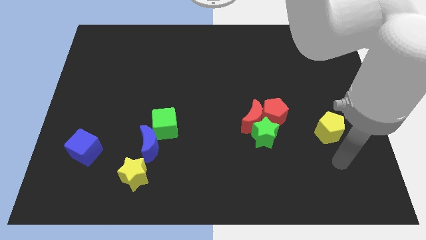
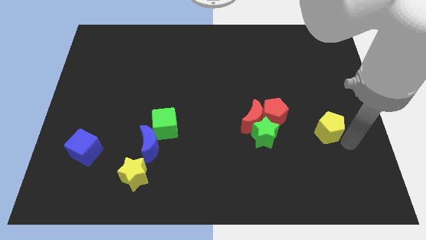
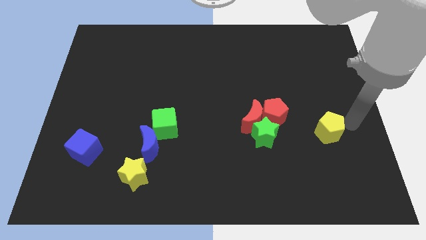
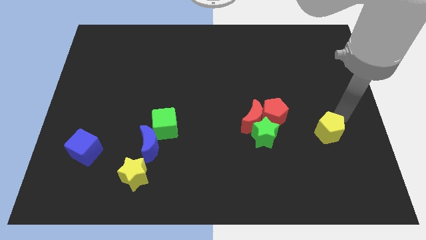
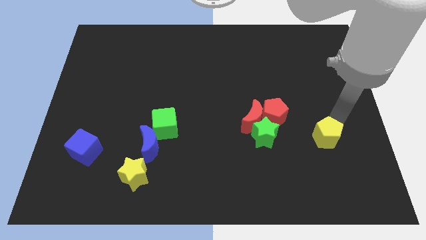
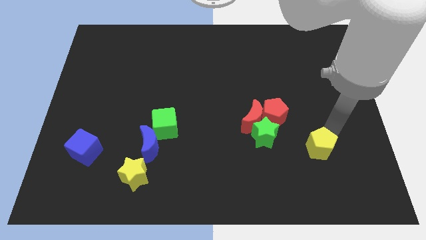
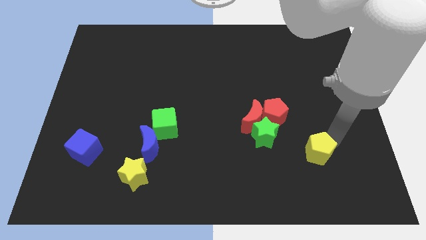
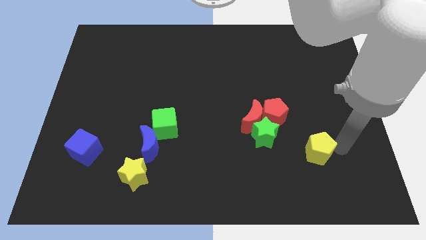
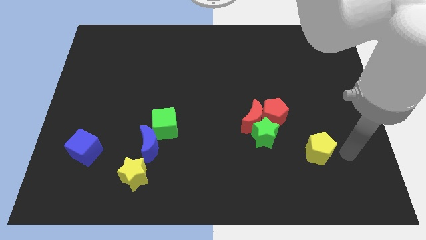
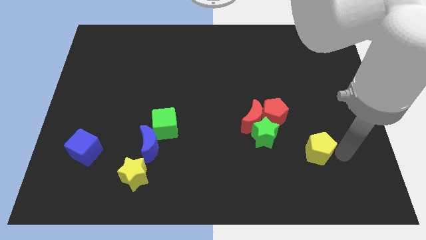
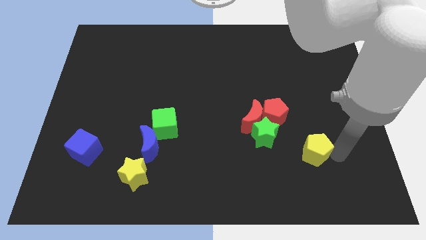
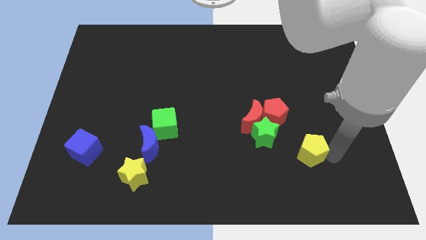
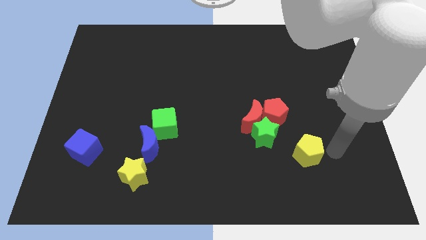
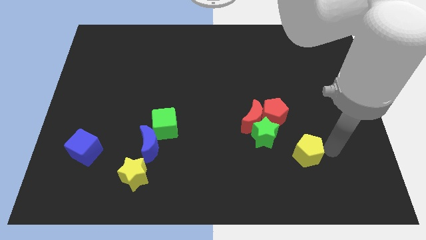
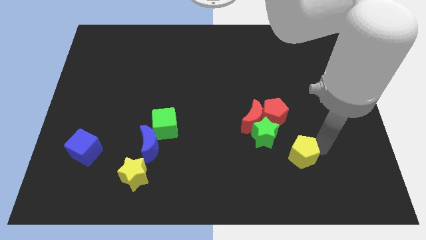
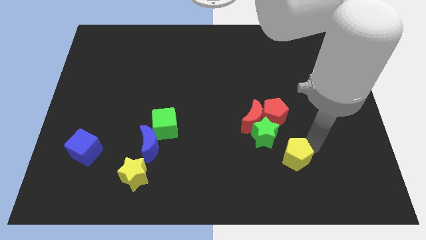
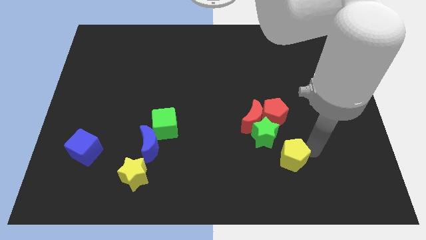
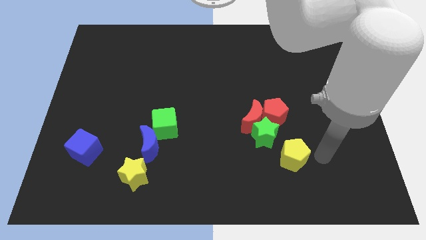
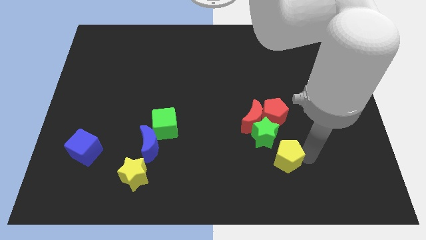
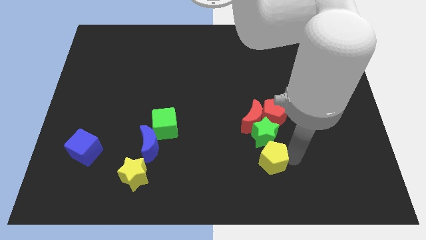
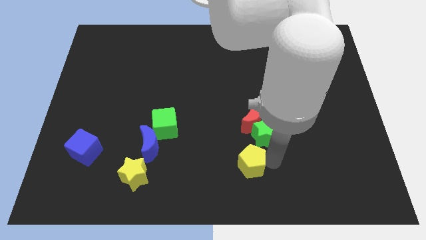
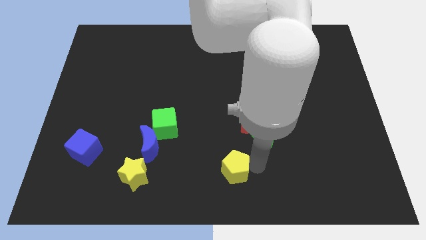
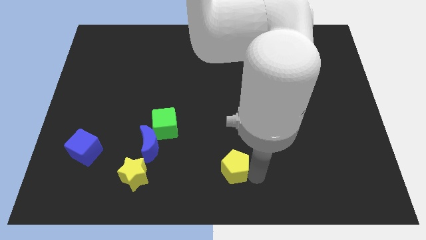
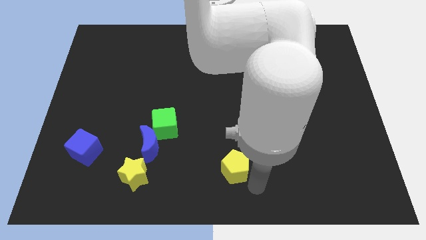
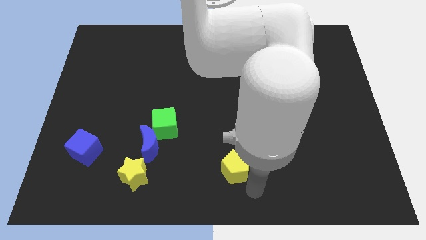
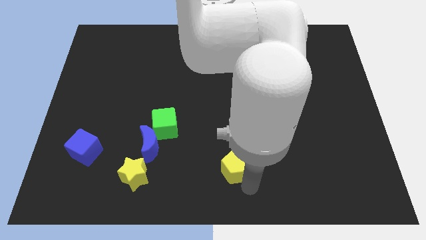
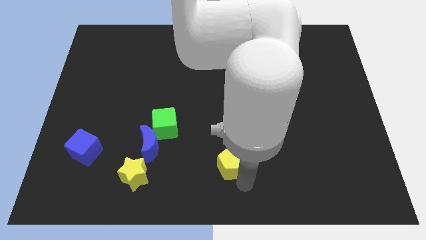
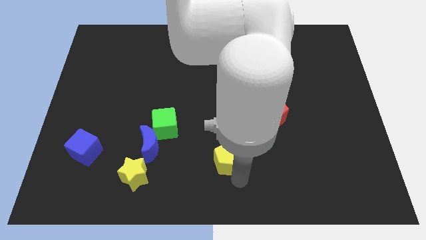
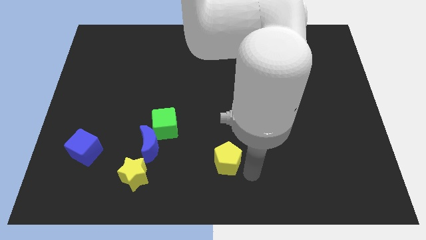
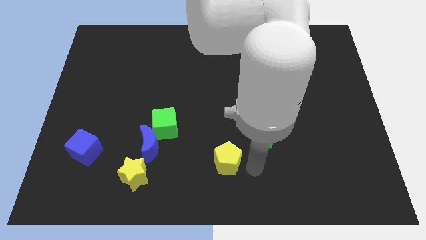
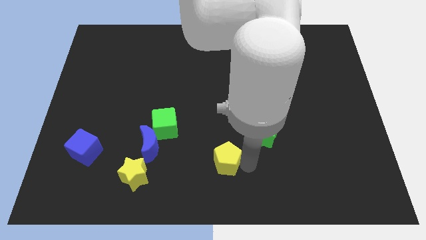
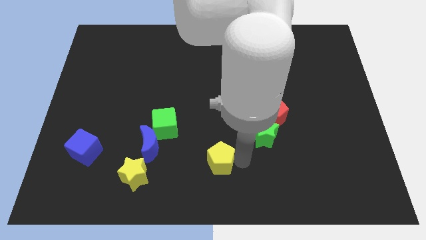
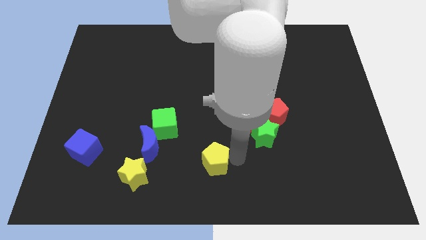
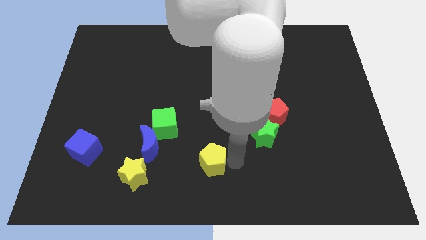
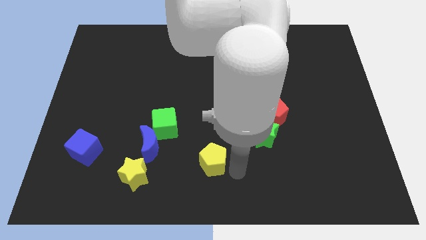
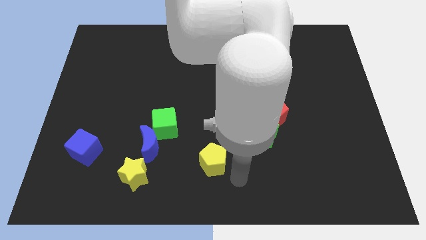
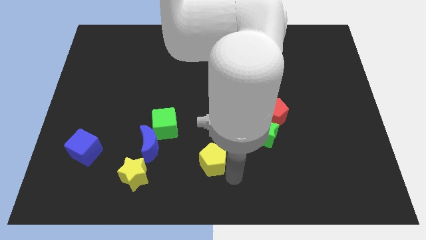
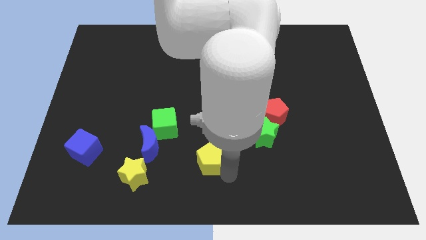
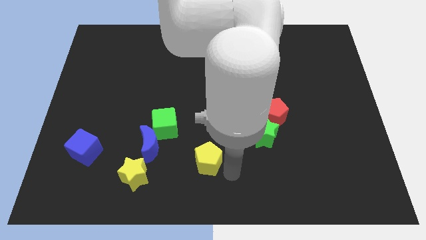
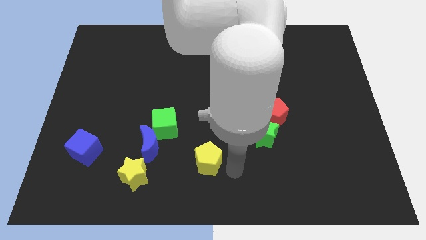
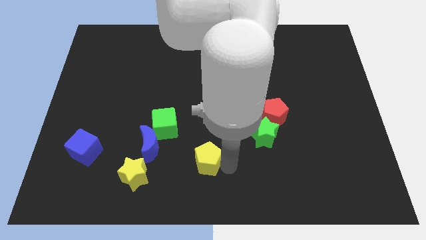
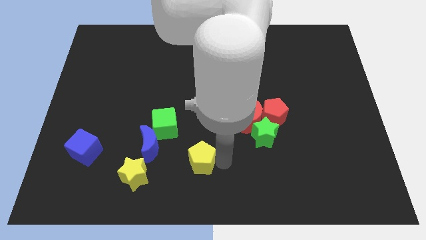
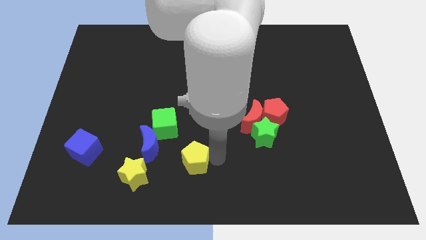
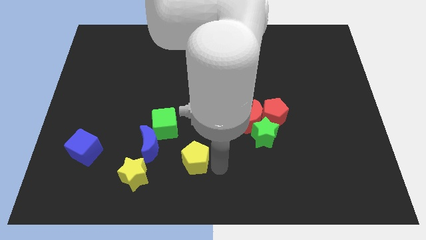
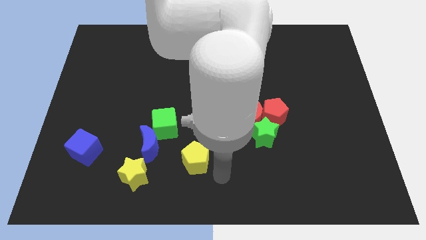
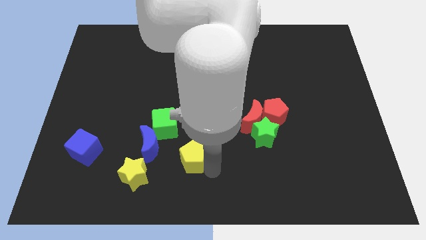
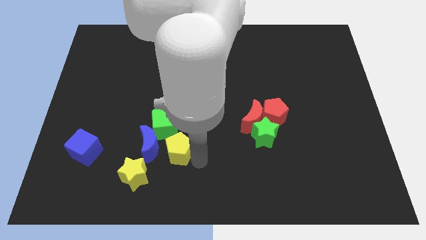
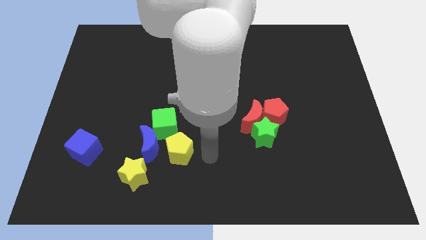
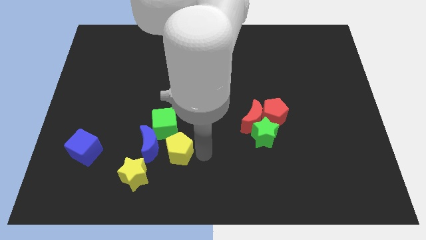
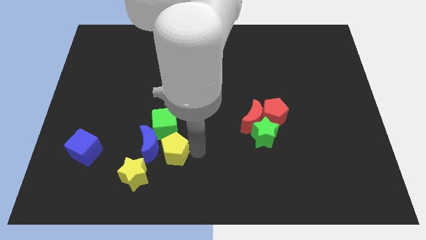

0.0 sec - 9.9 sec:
move the yellow pentagon next to the blue moon

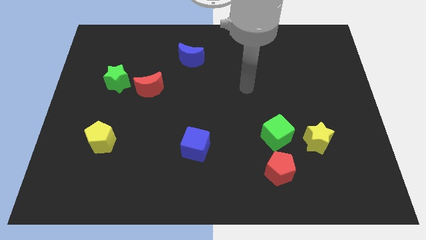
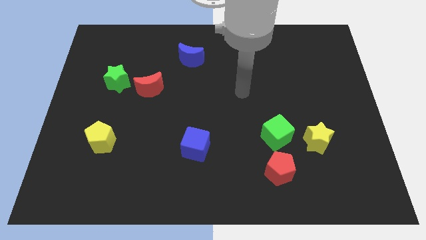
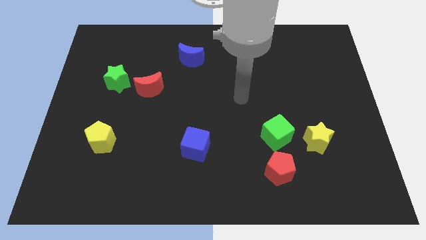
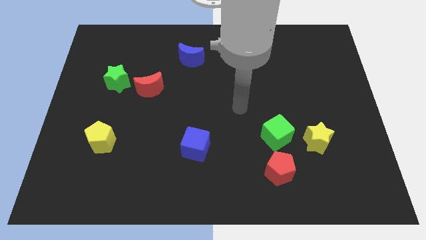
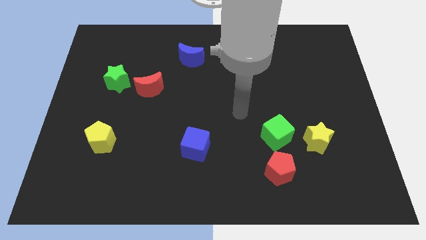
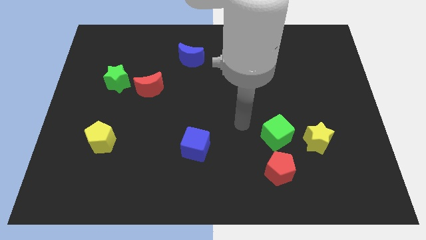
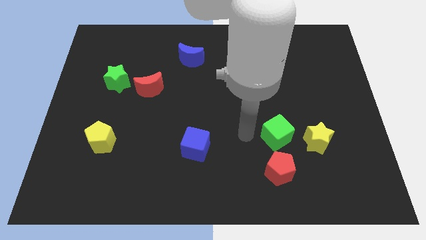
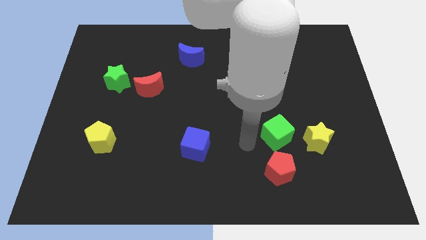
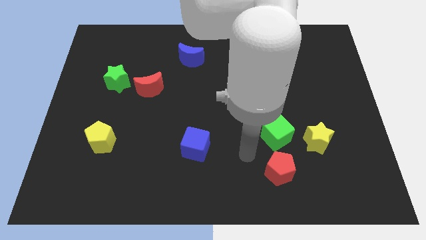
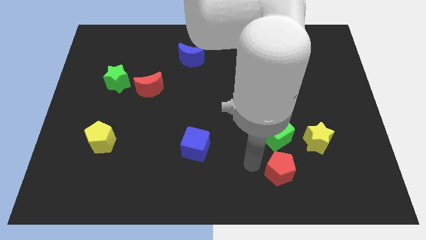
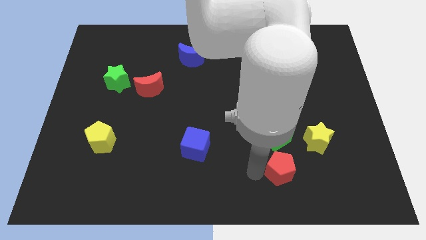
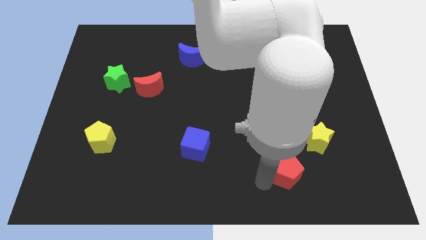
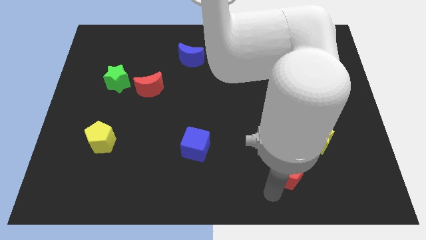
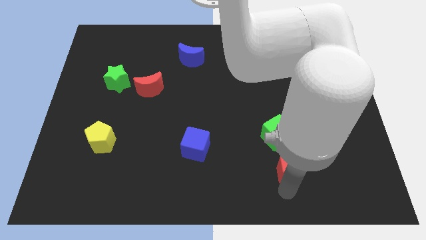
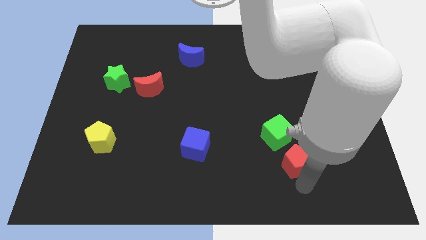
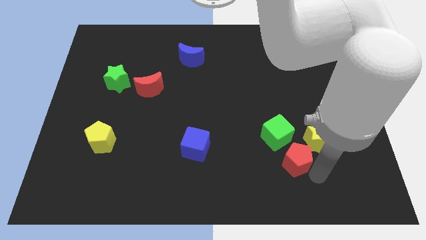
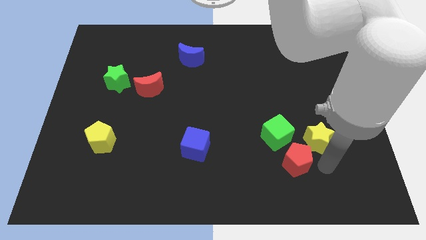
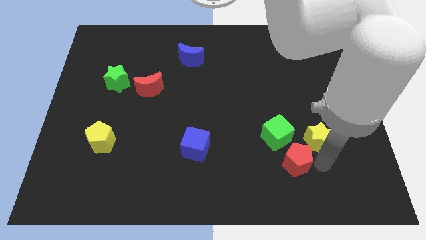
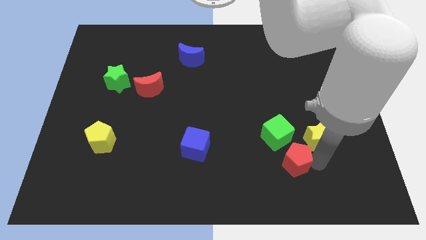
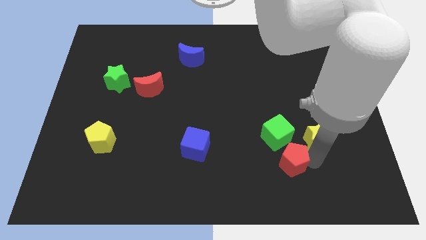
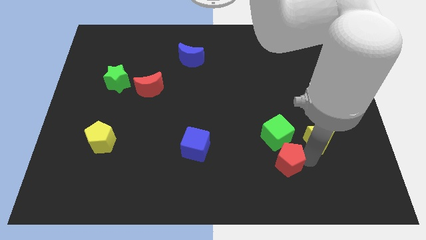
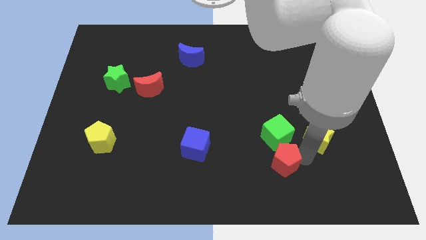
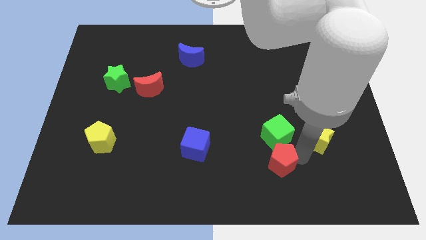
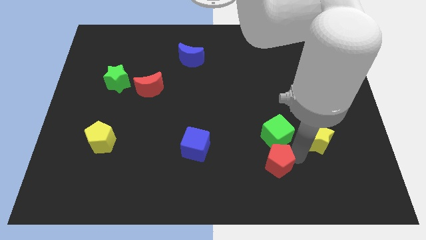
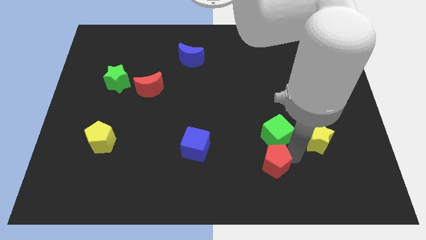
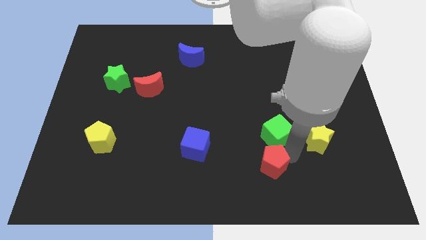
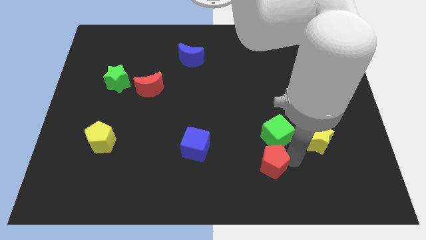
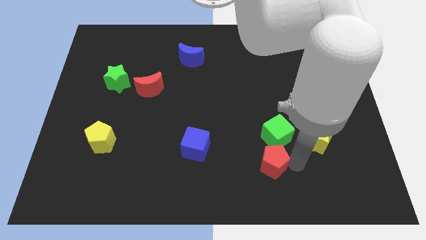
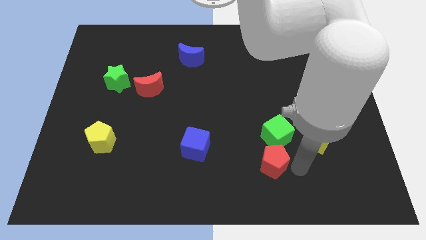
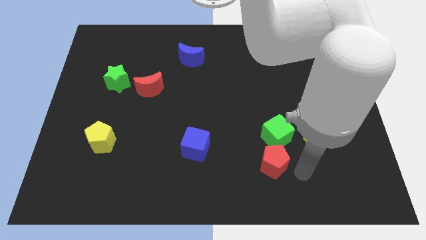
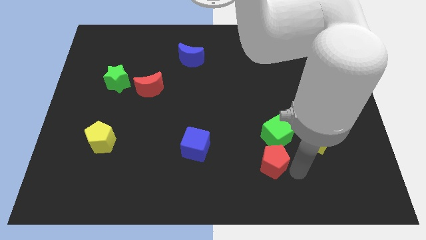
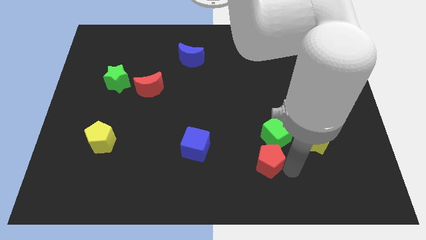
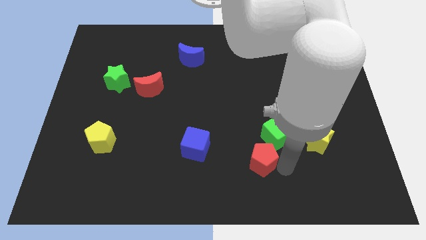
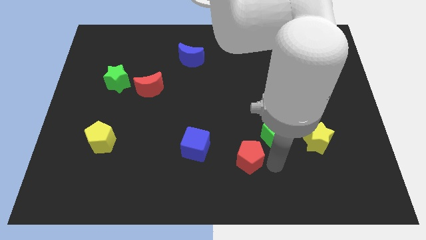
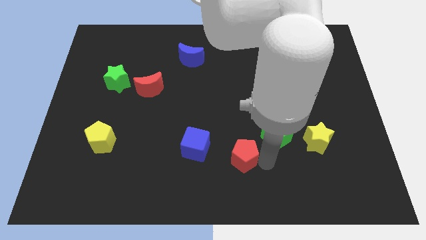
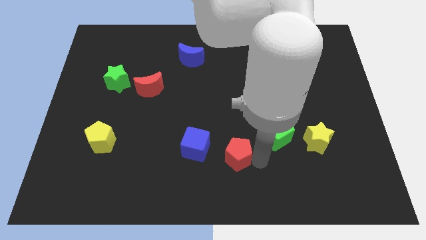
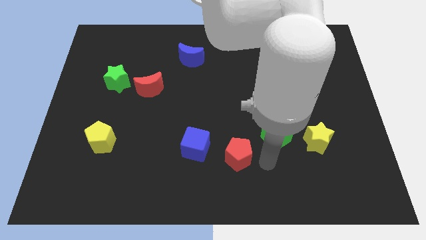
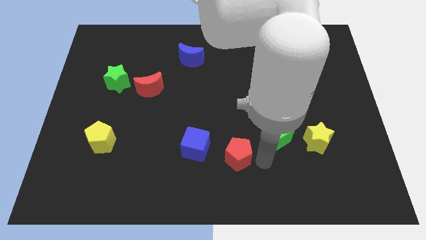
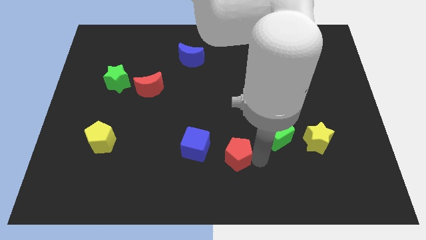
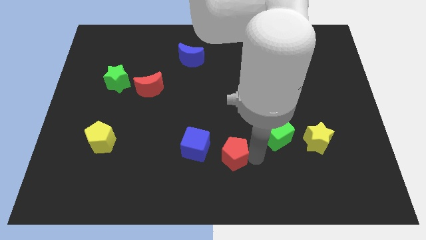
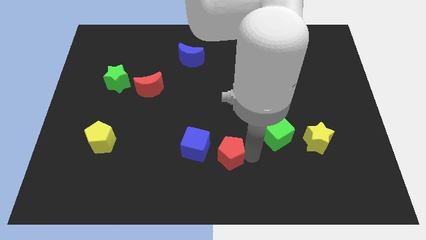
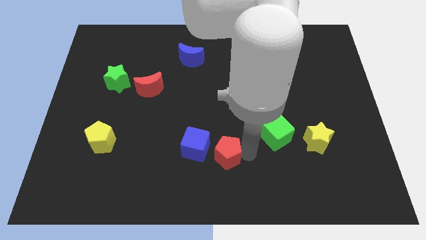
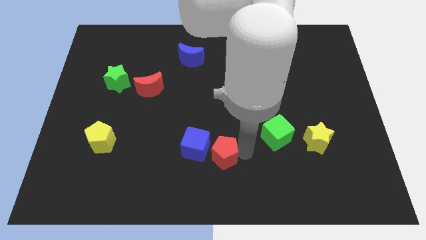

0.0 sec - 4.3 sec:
move the red pentagon to the blue cube
